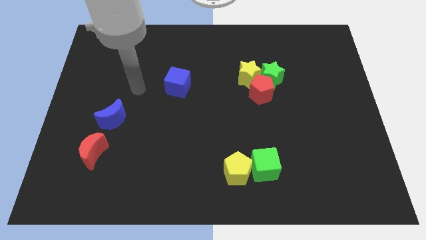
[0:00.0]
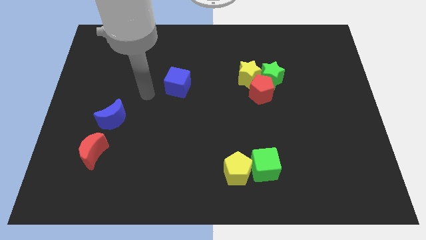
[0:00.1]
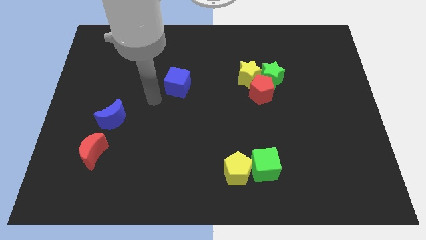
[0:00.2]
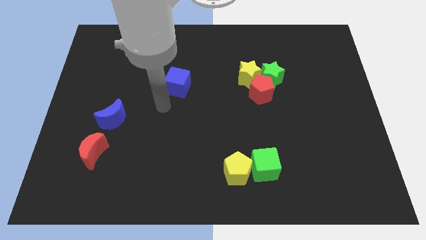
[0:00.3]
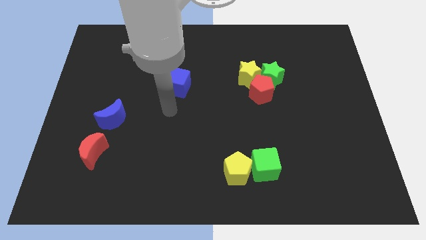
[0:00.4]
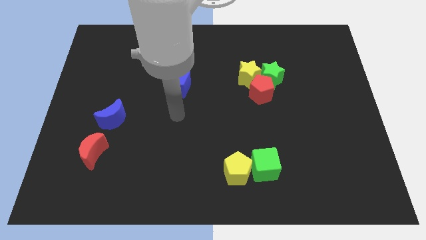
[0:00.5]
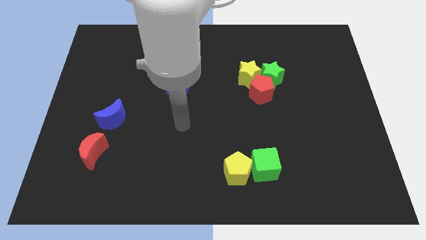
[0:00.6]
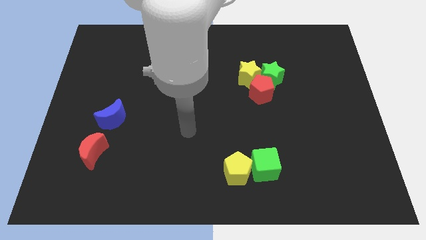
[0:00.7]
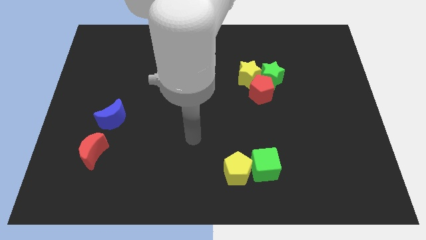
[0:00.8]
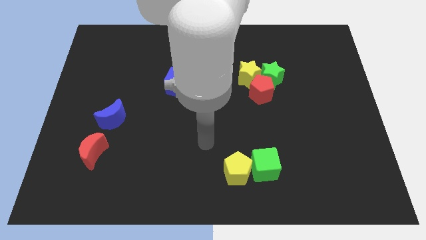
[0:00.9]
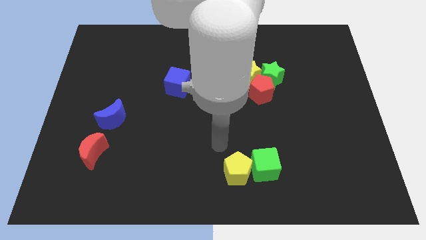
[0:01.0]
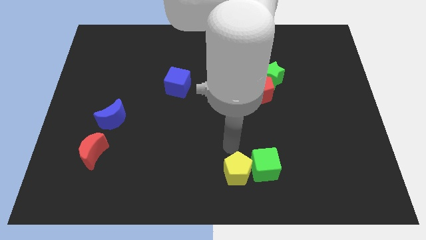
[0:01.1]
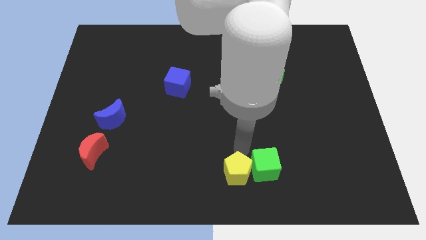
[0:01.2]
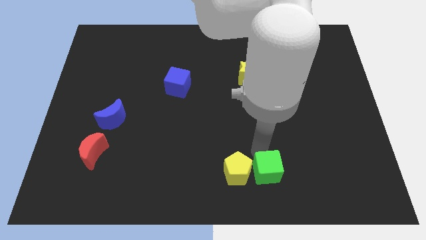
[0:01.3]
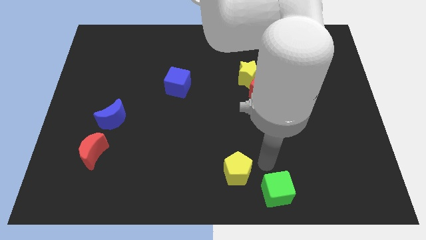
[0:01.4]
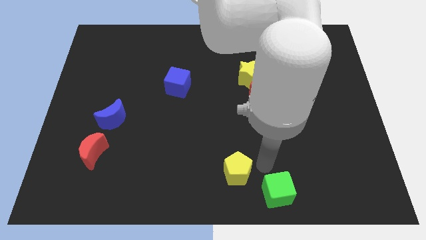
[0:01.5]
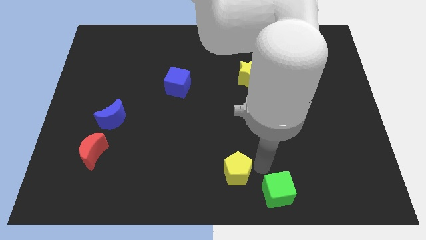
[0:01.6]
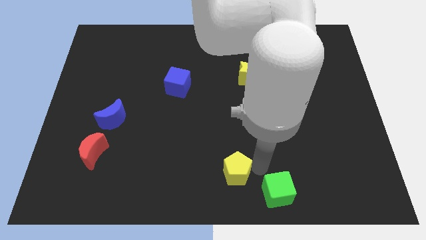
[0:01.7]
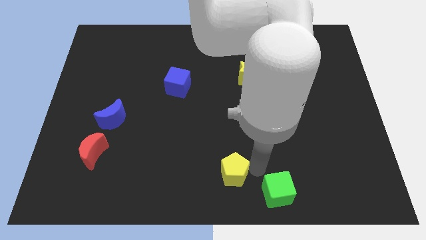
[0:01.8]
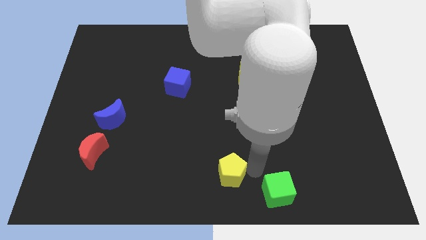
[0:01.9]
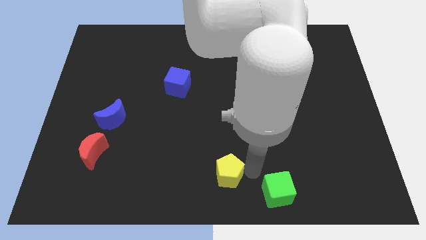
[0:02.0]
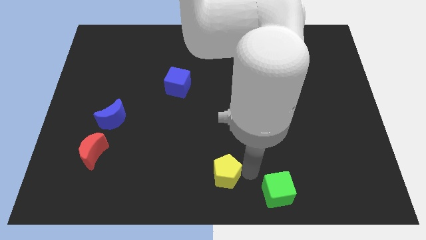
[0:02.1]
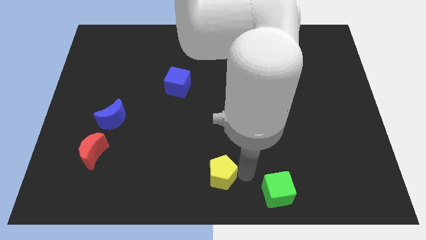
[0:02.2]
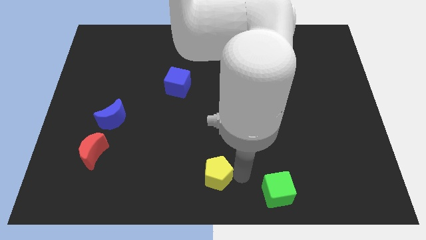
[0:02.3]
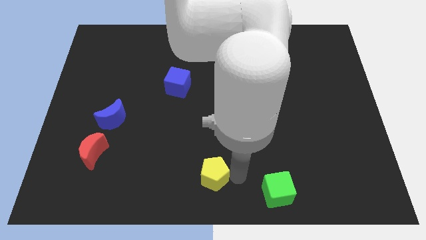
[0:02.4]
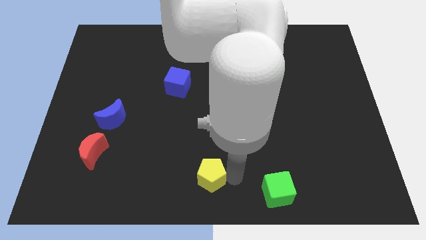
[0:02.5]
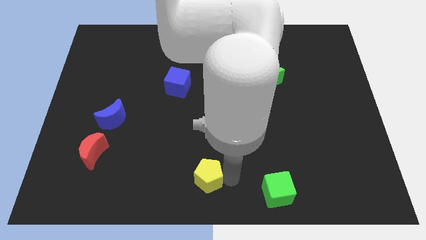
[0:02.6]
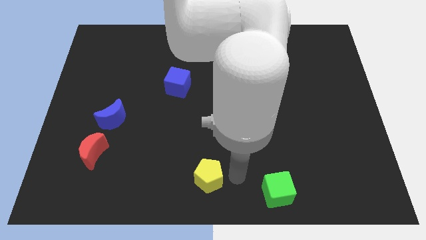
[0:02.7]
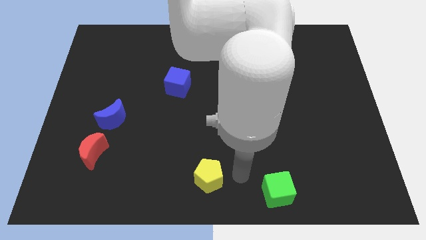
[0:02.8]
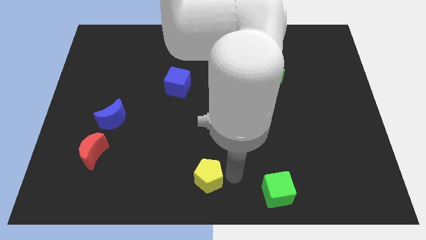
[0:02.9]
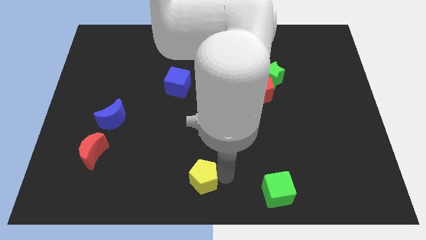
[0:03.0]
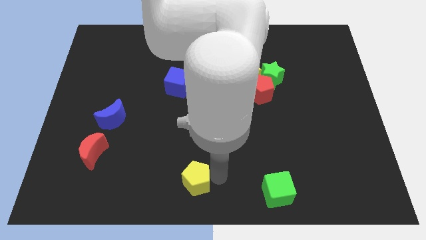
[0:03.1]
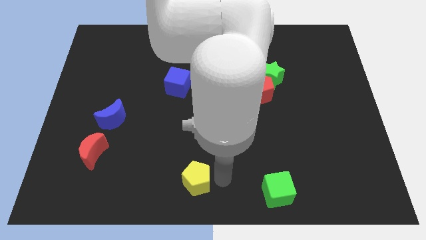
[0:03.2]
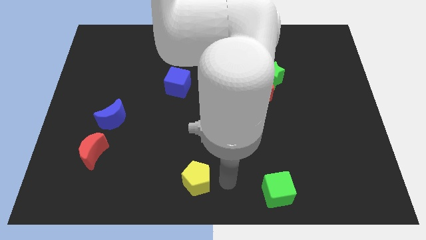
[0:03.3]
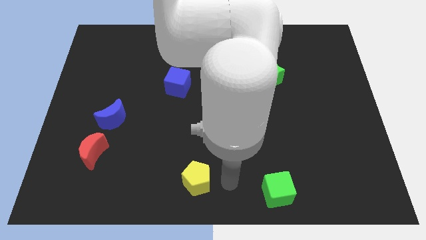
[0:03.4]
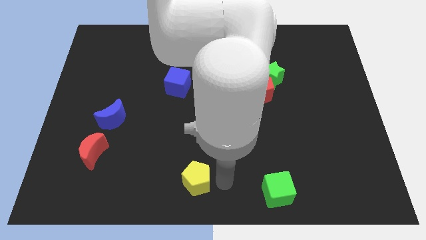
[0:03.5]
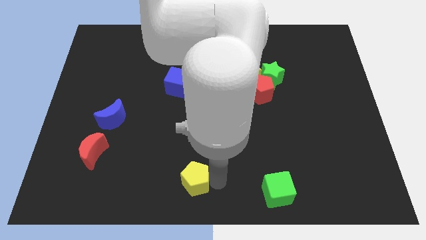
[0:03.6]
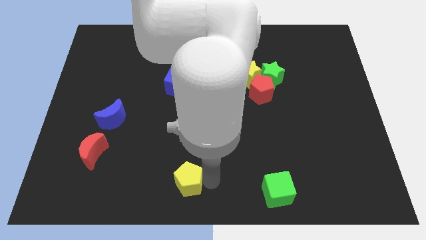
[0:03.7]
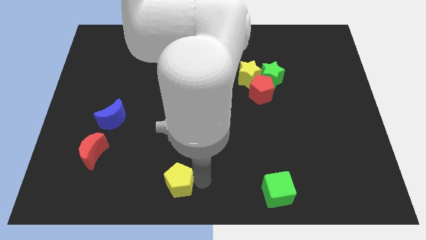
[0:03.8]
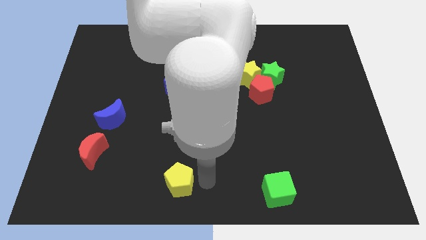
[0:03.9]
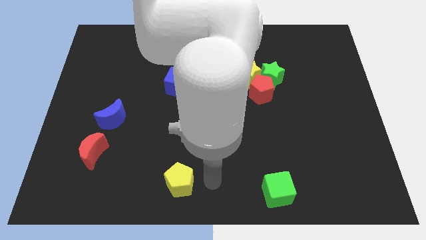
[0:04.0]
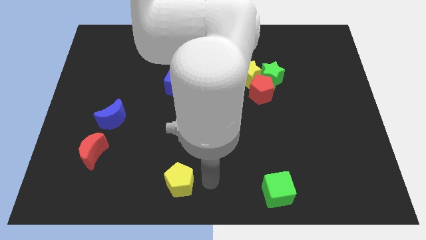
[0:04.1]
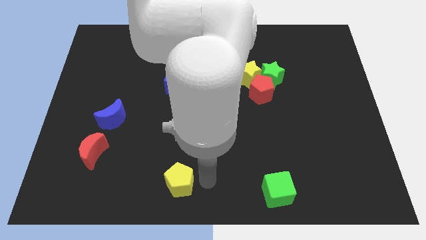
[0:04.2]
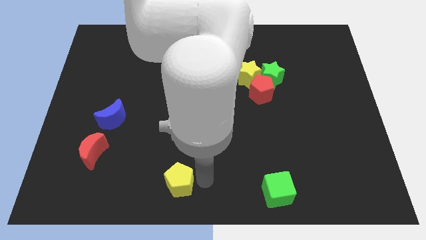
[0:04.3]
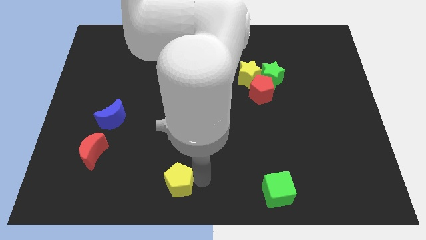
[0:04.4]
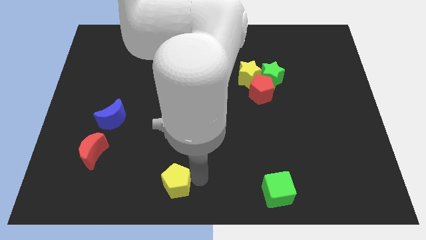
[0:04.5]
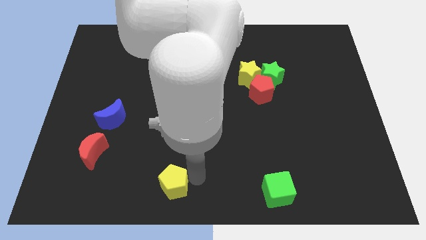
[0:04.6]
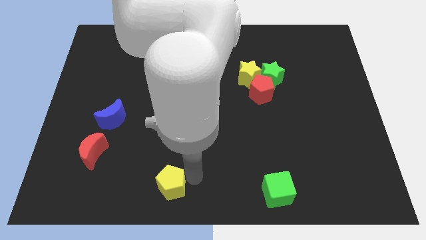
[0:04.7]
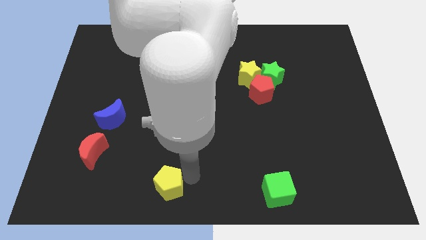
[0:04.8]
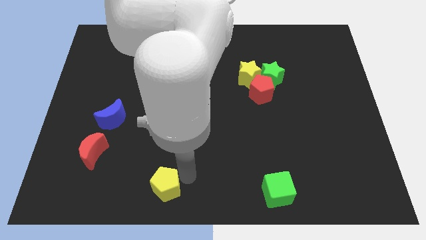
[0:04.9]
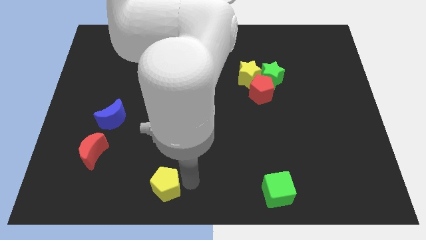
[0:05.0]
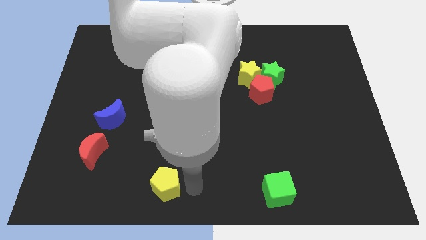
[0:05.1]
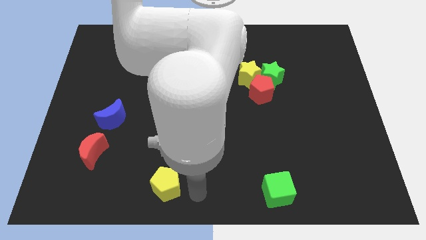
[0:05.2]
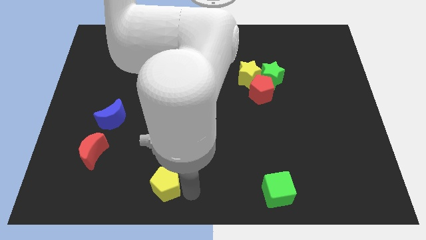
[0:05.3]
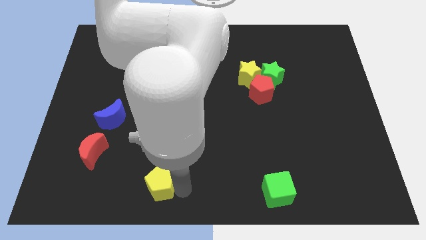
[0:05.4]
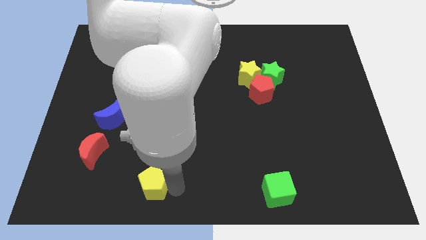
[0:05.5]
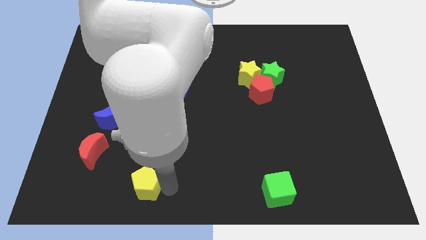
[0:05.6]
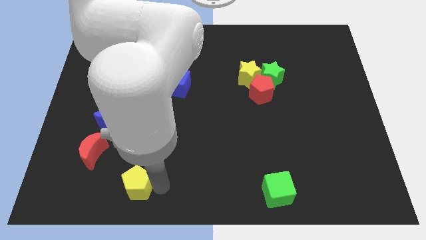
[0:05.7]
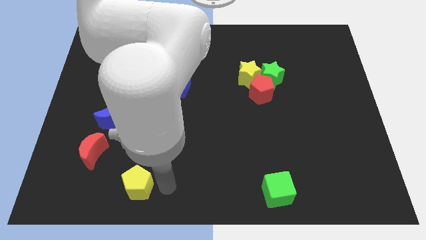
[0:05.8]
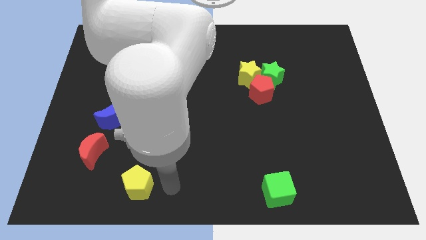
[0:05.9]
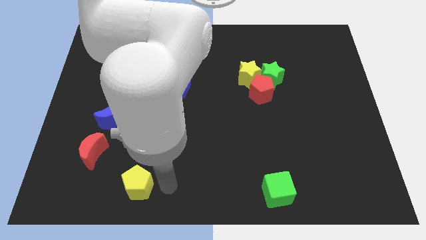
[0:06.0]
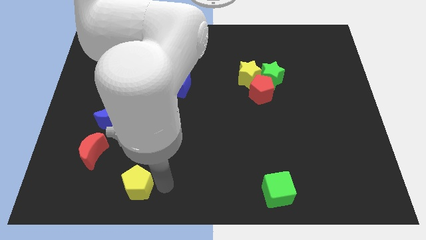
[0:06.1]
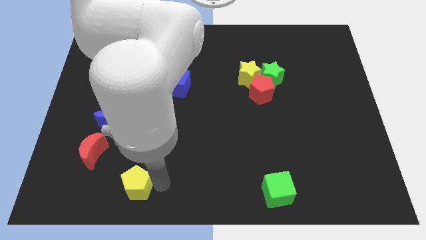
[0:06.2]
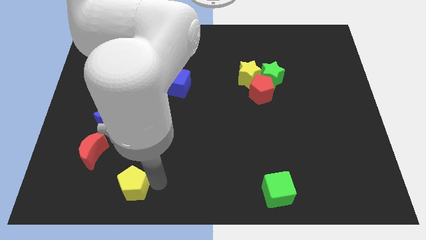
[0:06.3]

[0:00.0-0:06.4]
slide the yellow pentagon left

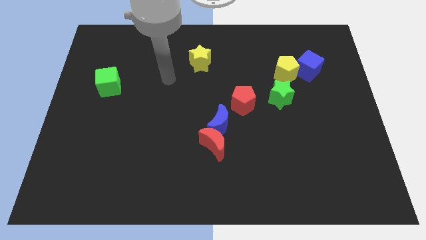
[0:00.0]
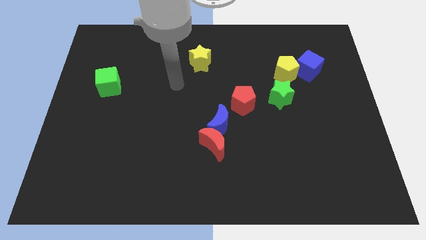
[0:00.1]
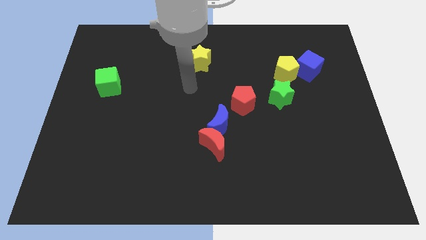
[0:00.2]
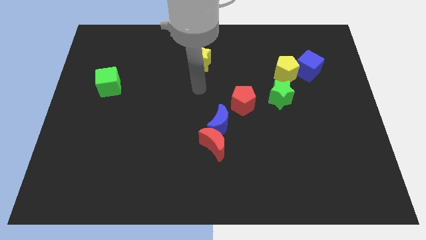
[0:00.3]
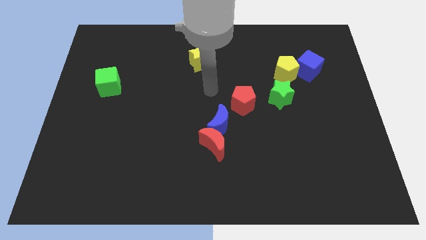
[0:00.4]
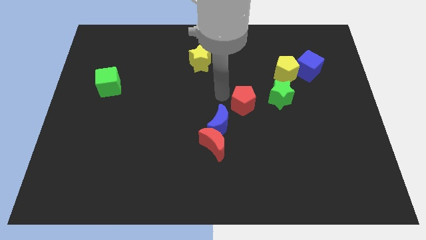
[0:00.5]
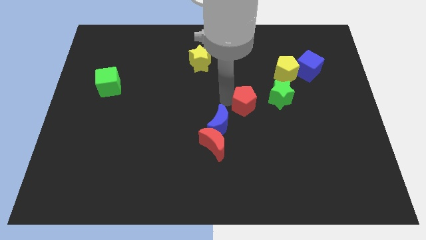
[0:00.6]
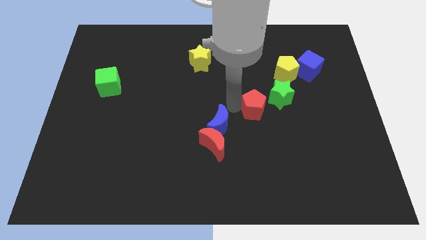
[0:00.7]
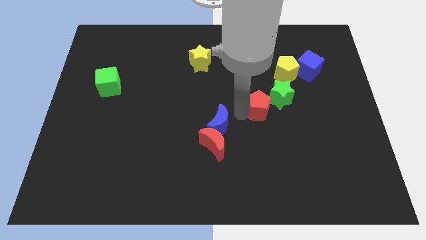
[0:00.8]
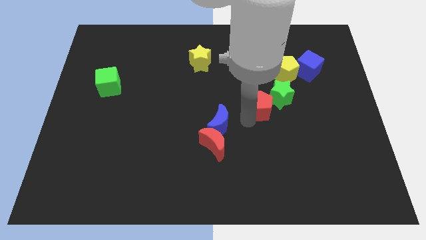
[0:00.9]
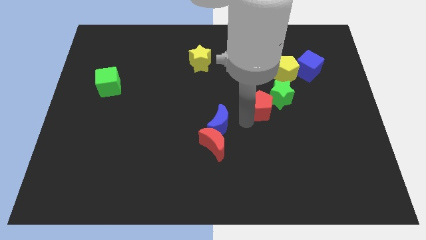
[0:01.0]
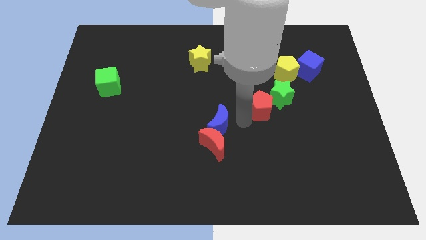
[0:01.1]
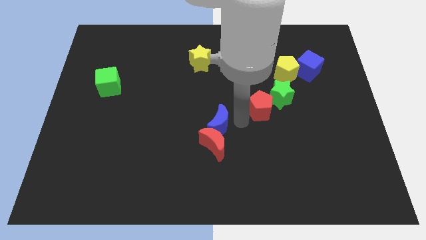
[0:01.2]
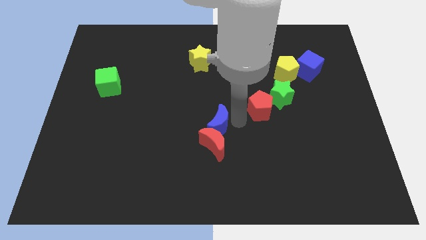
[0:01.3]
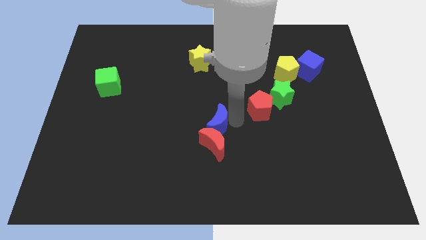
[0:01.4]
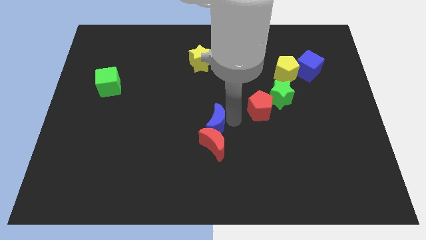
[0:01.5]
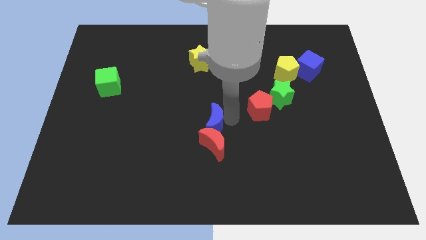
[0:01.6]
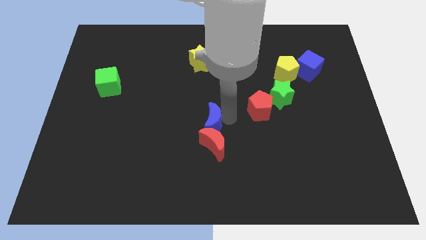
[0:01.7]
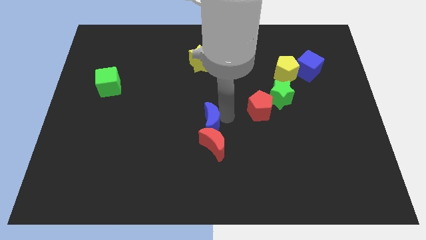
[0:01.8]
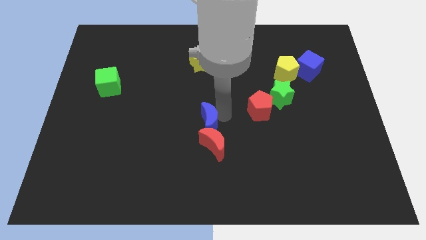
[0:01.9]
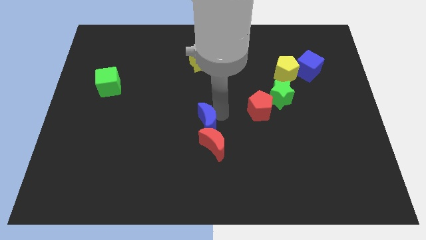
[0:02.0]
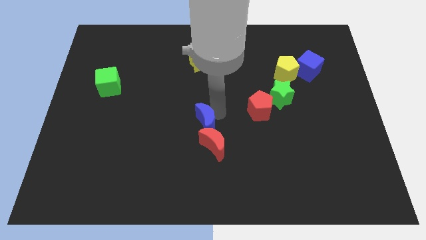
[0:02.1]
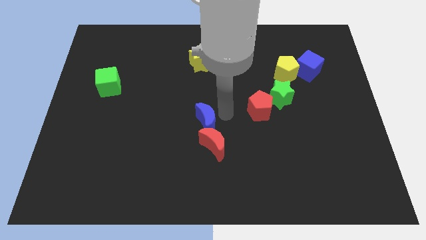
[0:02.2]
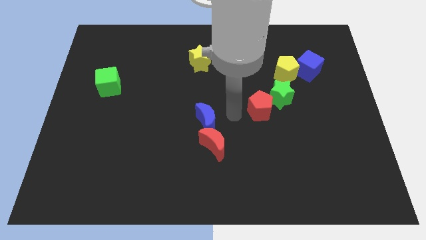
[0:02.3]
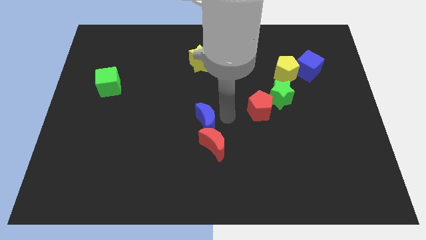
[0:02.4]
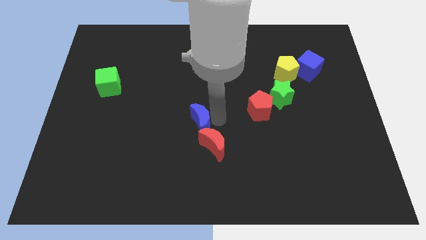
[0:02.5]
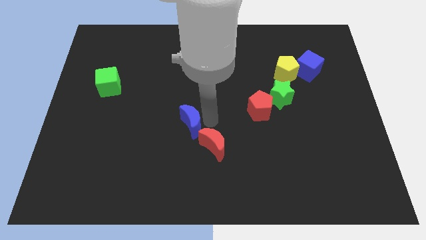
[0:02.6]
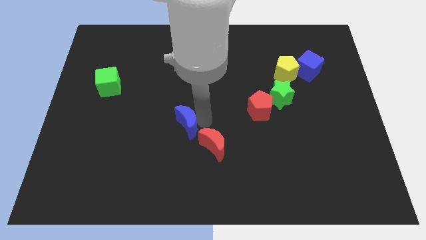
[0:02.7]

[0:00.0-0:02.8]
push the blue moon to the left a little
